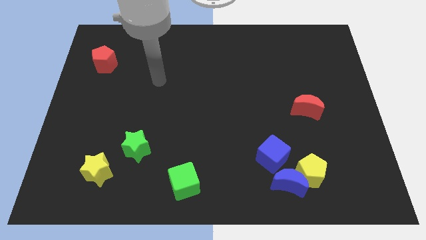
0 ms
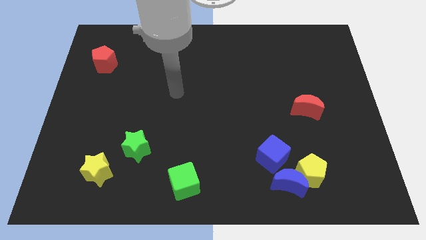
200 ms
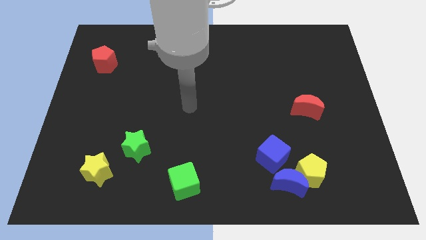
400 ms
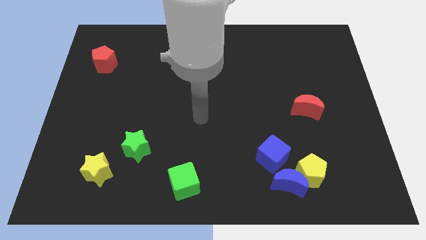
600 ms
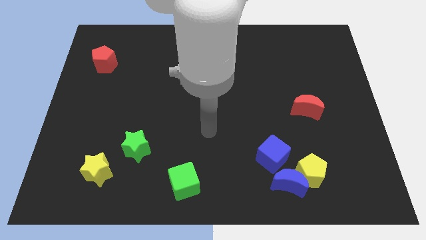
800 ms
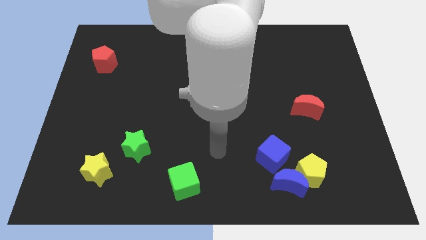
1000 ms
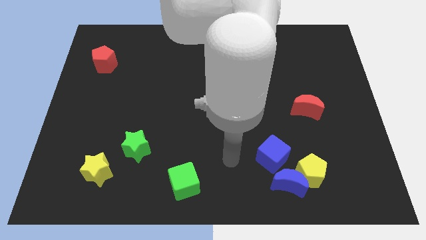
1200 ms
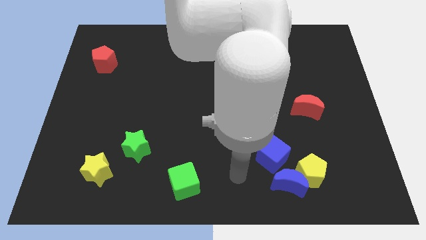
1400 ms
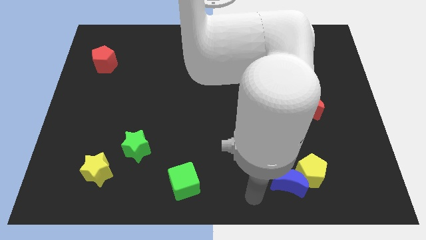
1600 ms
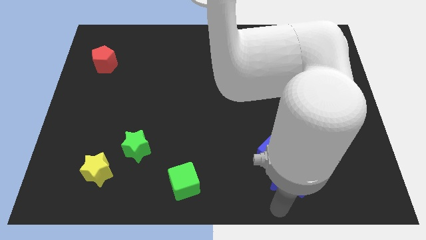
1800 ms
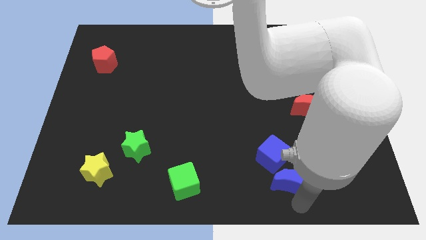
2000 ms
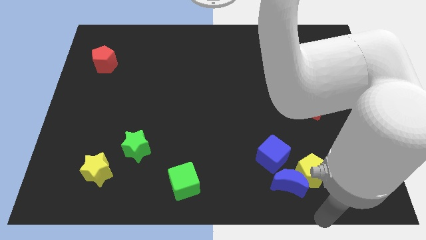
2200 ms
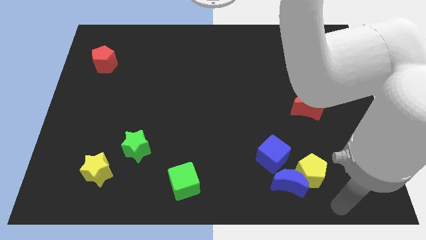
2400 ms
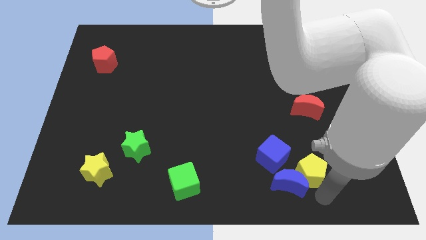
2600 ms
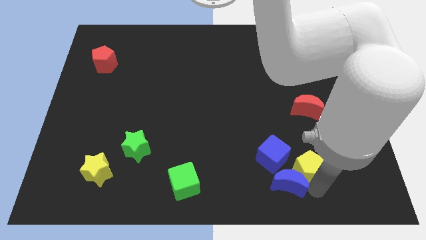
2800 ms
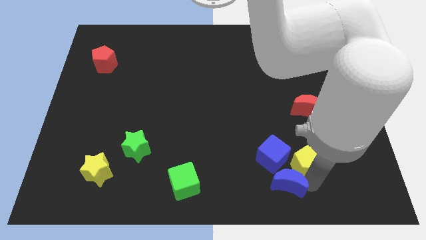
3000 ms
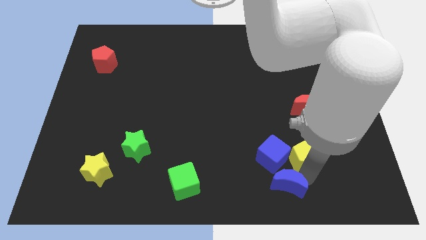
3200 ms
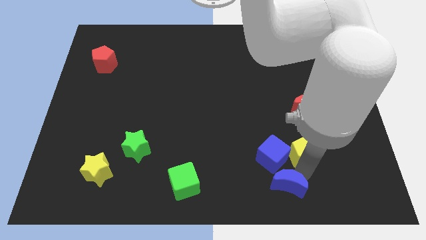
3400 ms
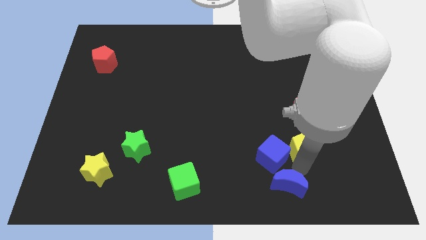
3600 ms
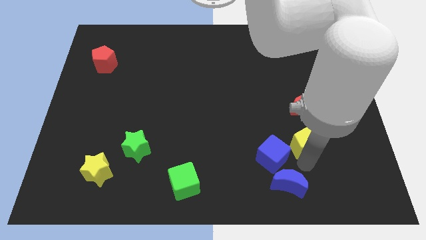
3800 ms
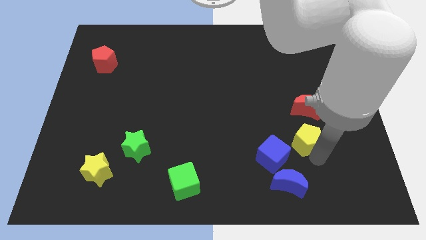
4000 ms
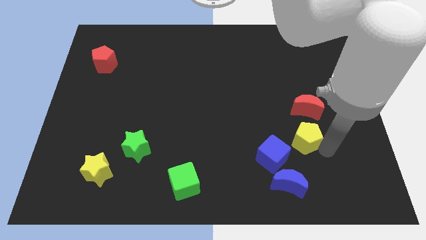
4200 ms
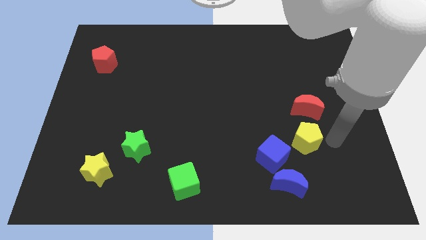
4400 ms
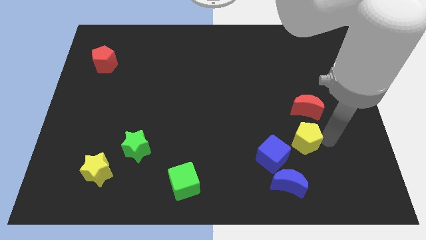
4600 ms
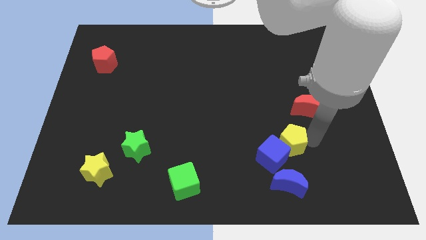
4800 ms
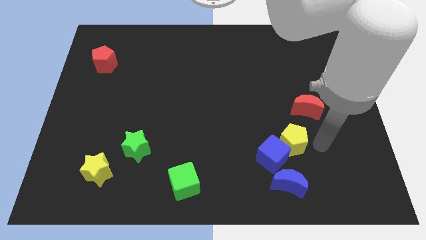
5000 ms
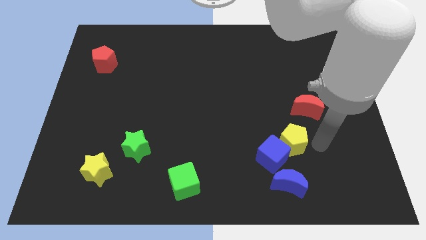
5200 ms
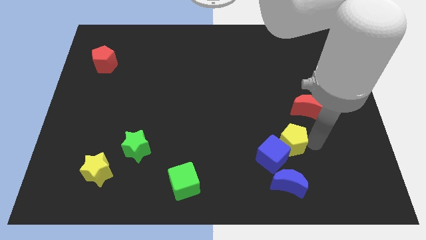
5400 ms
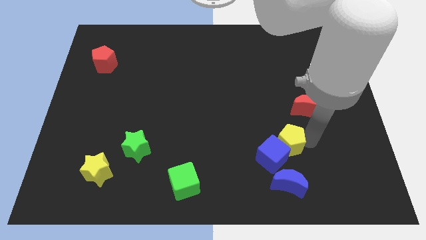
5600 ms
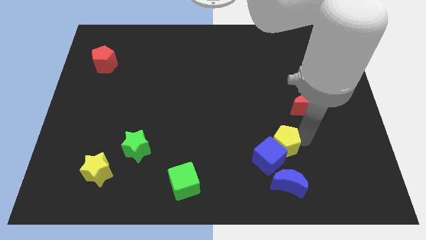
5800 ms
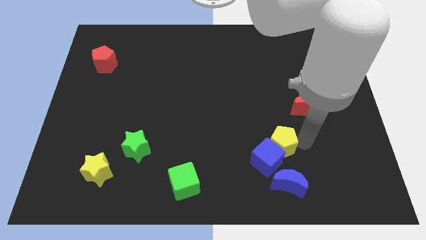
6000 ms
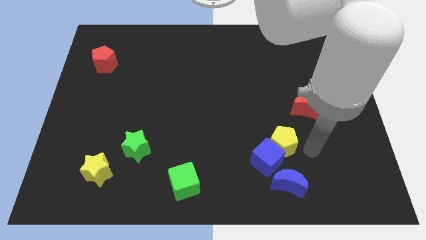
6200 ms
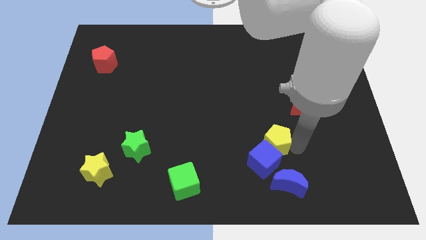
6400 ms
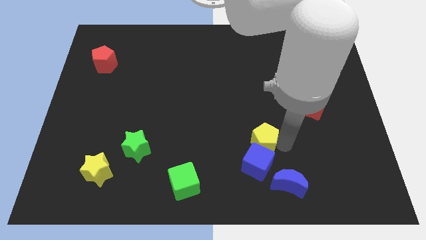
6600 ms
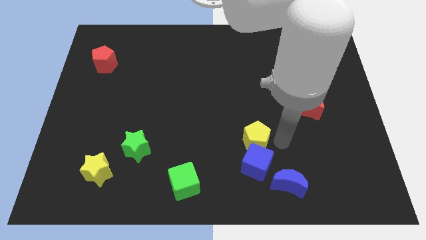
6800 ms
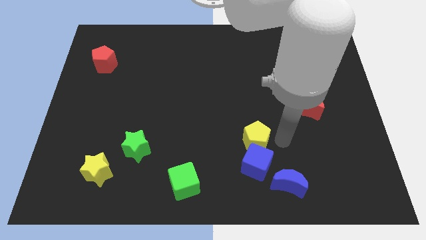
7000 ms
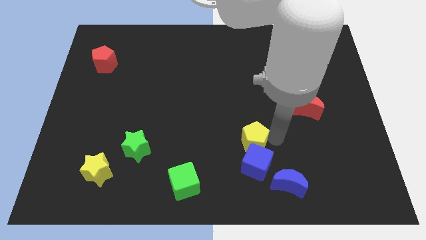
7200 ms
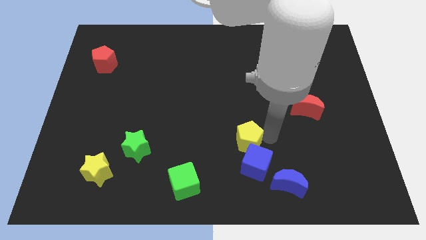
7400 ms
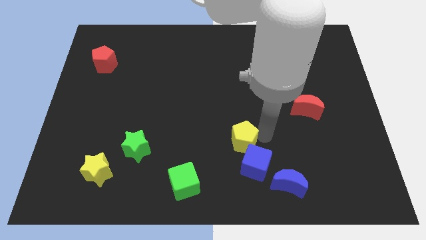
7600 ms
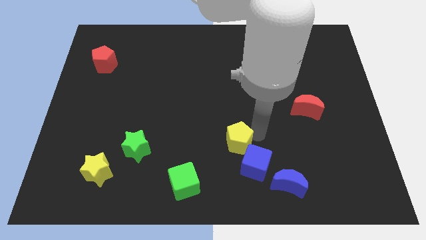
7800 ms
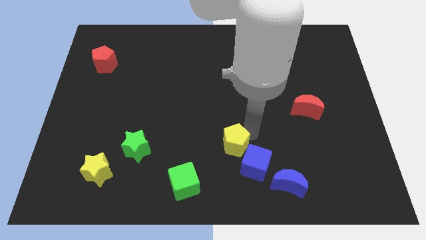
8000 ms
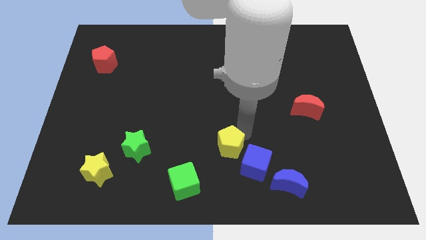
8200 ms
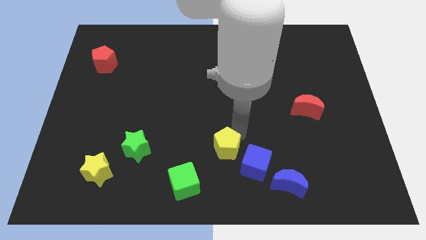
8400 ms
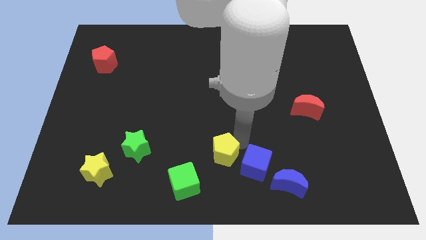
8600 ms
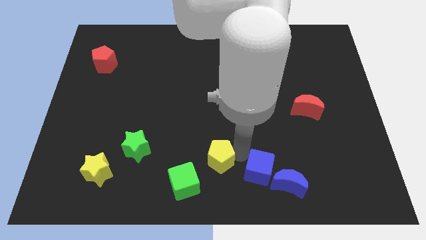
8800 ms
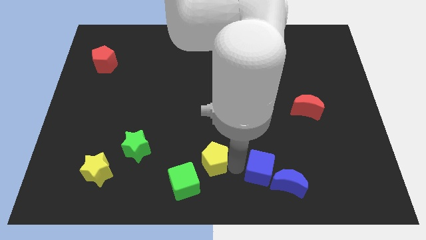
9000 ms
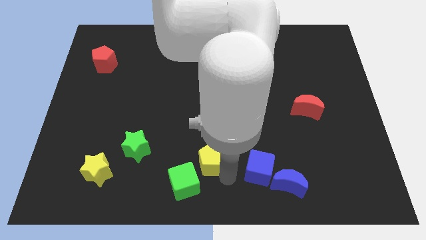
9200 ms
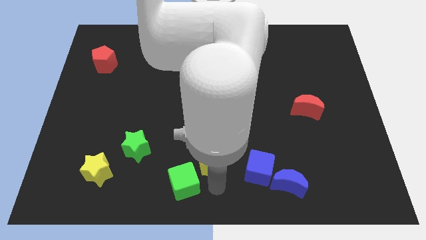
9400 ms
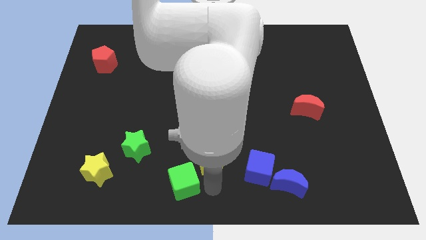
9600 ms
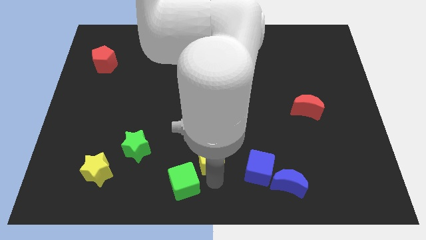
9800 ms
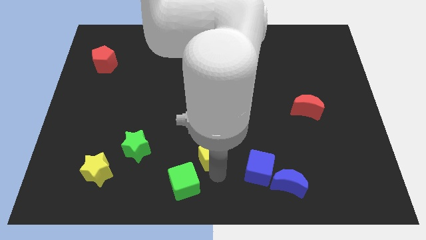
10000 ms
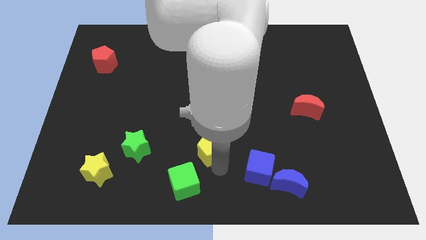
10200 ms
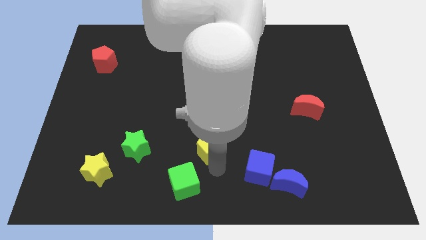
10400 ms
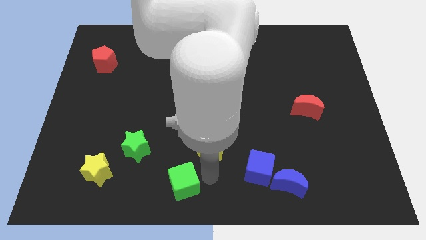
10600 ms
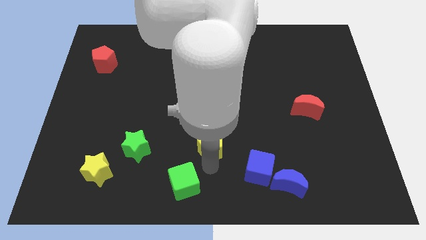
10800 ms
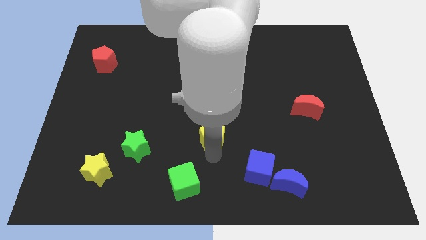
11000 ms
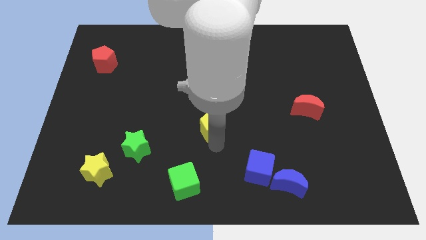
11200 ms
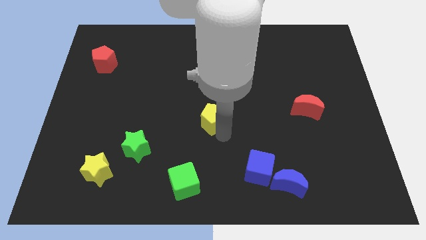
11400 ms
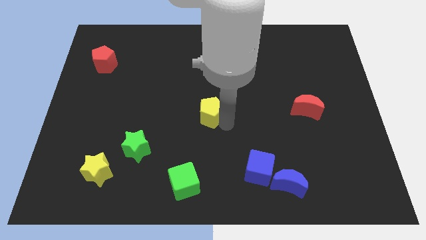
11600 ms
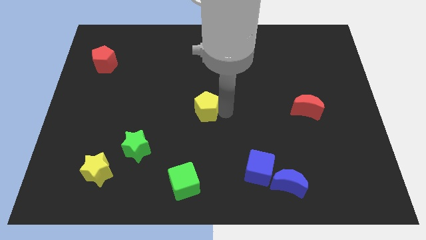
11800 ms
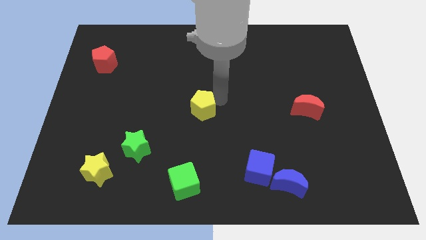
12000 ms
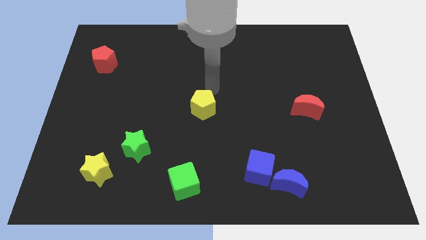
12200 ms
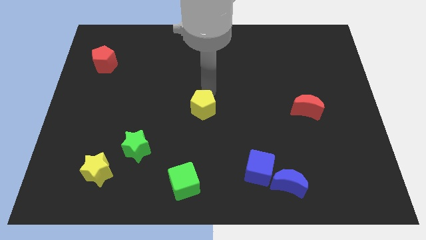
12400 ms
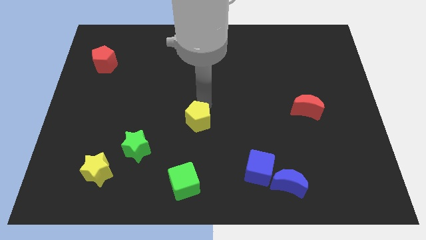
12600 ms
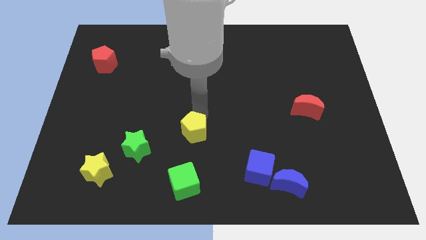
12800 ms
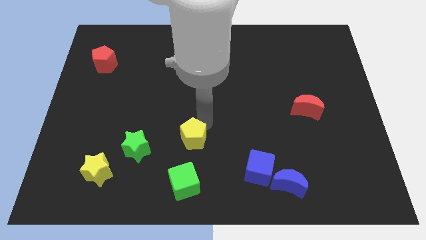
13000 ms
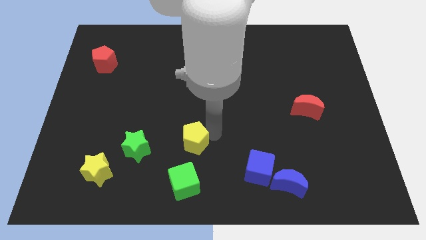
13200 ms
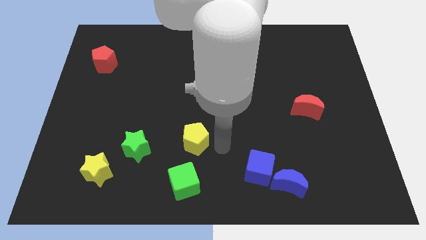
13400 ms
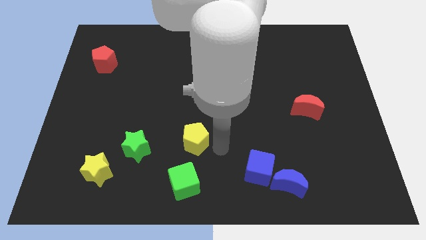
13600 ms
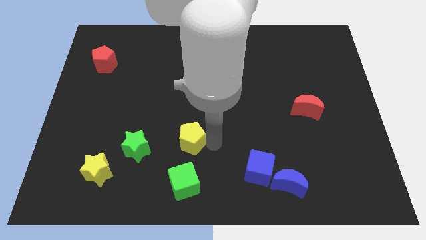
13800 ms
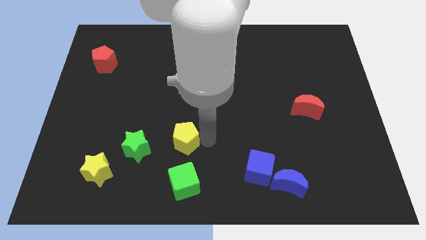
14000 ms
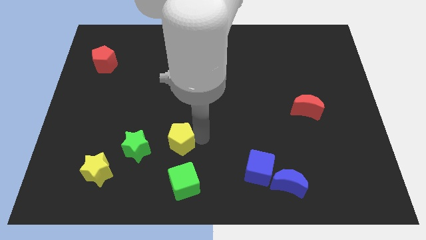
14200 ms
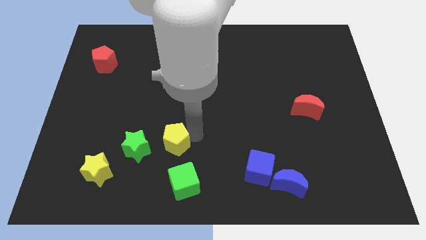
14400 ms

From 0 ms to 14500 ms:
slide the yellow pentagon to the top right of the green star
